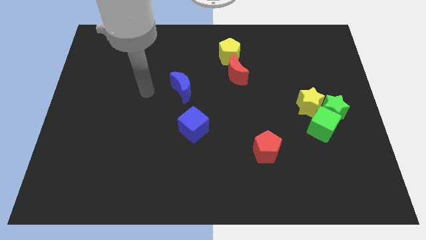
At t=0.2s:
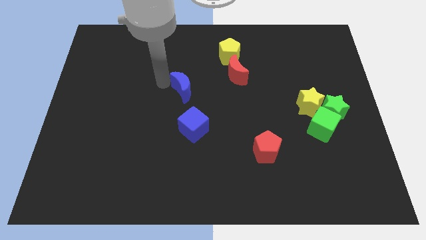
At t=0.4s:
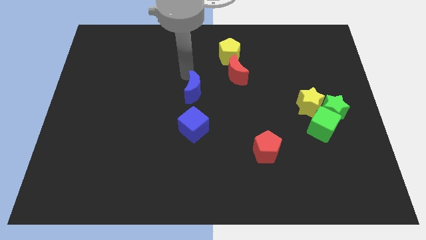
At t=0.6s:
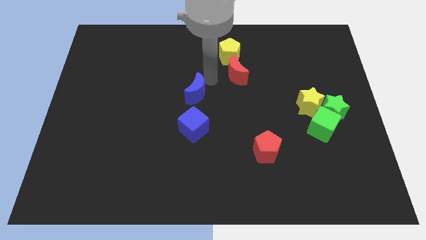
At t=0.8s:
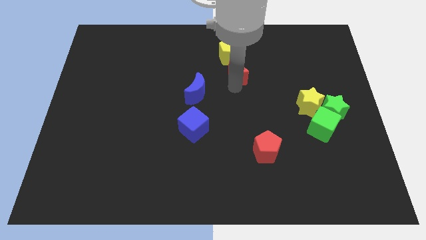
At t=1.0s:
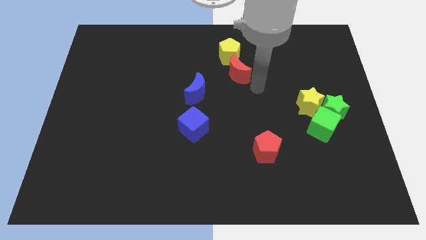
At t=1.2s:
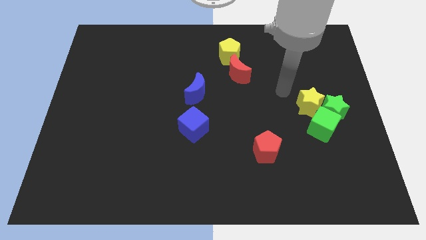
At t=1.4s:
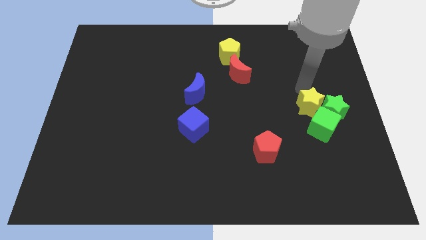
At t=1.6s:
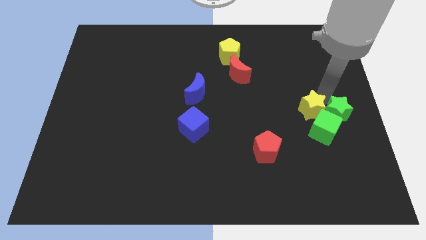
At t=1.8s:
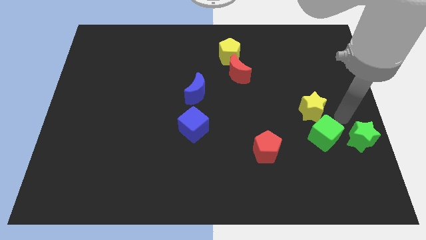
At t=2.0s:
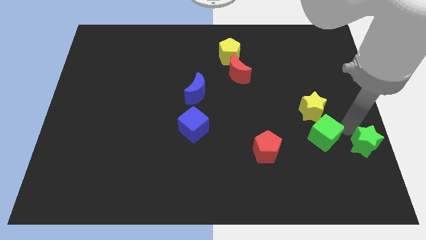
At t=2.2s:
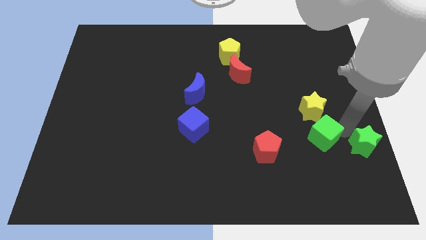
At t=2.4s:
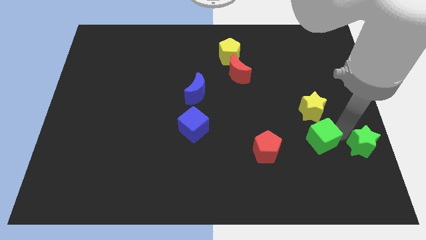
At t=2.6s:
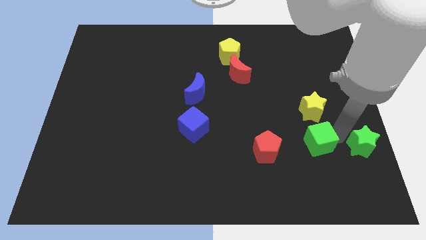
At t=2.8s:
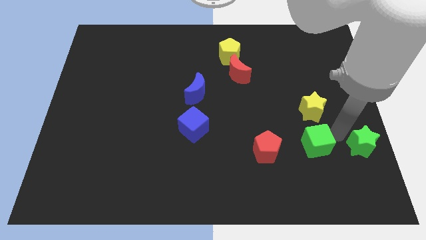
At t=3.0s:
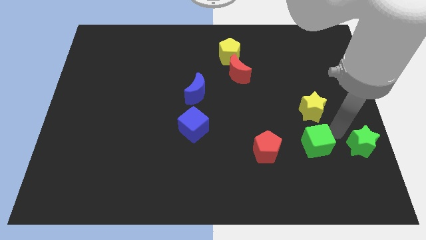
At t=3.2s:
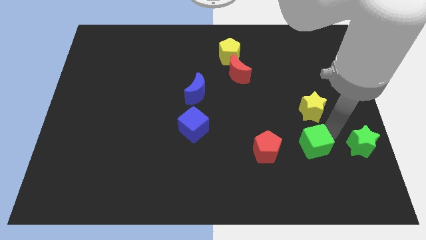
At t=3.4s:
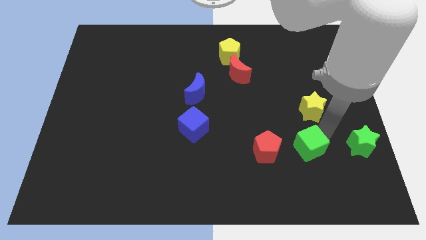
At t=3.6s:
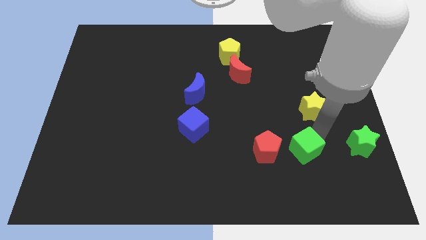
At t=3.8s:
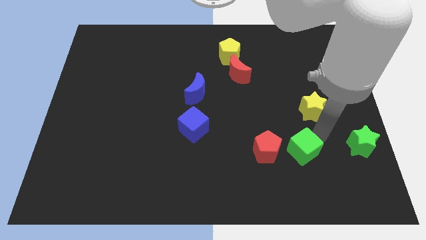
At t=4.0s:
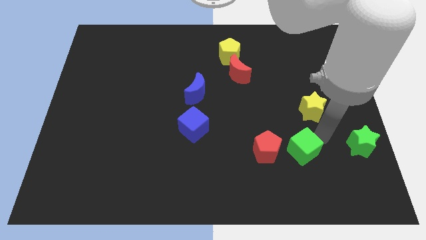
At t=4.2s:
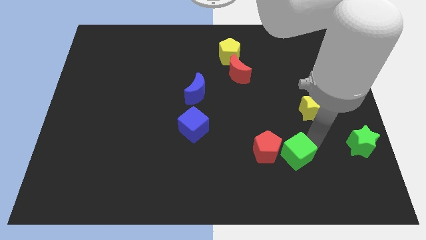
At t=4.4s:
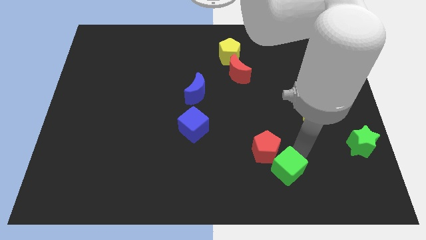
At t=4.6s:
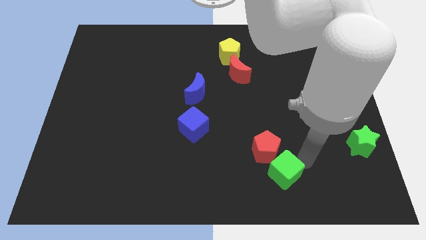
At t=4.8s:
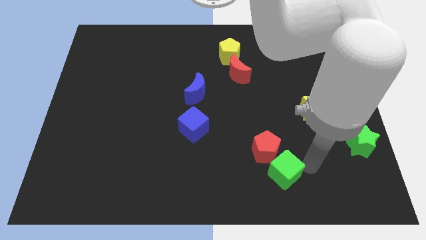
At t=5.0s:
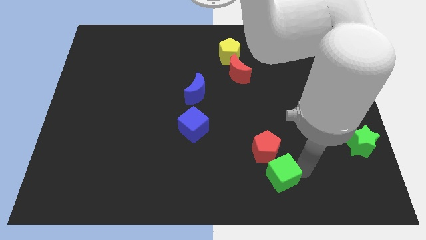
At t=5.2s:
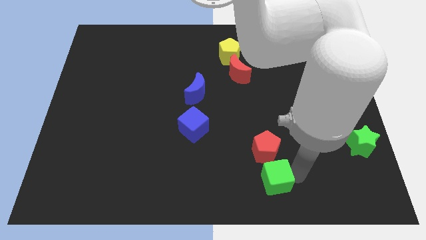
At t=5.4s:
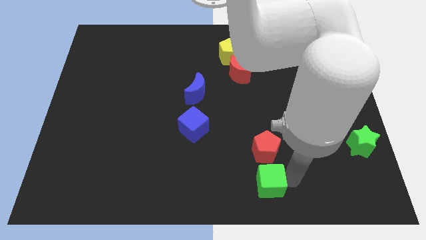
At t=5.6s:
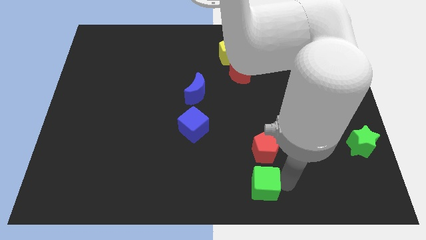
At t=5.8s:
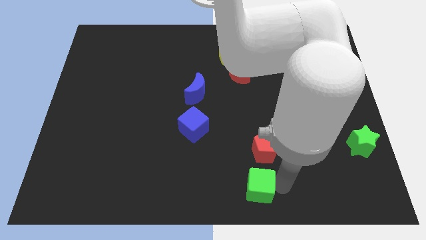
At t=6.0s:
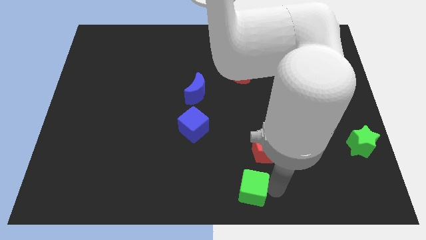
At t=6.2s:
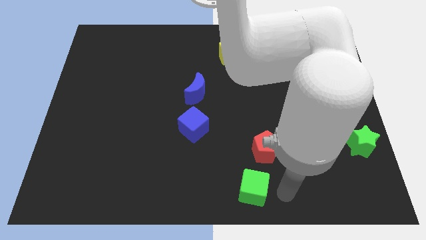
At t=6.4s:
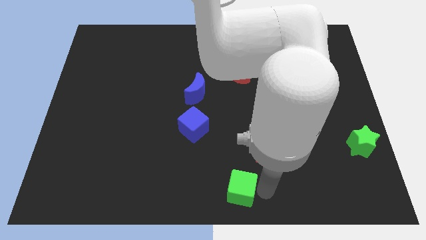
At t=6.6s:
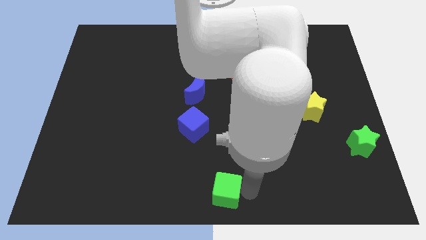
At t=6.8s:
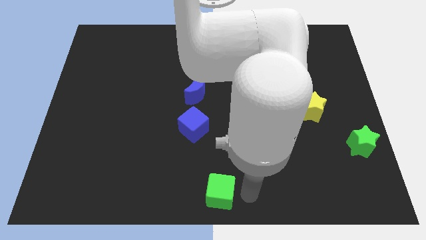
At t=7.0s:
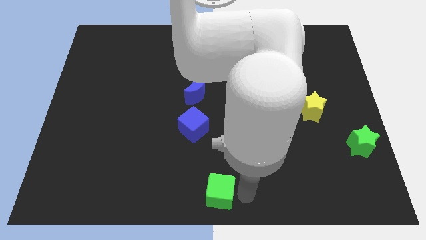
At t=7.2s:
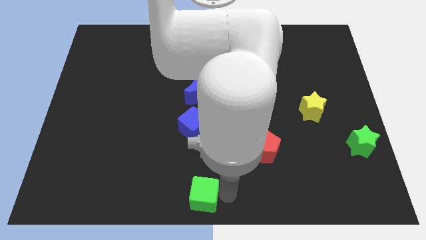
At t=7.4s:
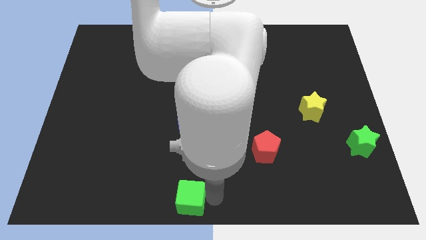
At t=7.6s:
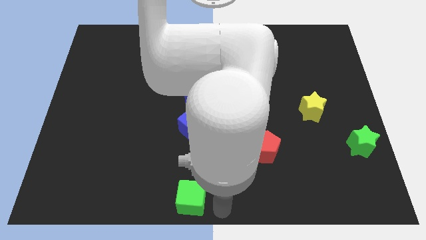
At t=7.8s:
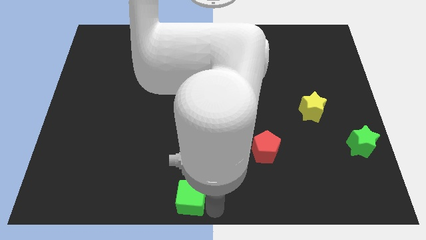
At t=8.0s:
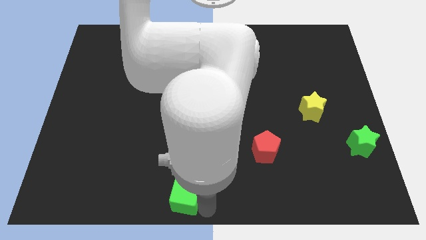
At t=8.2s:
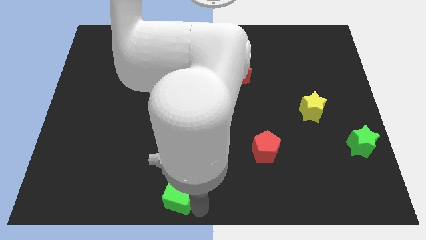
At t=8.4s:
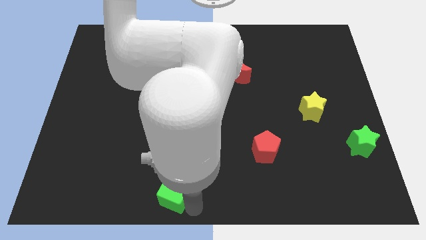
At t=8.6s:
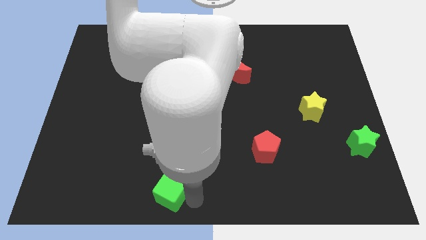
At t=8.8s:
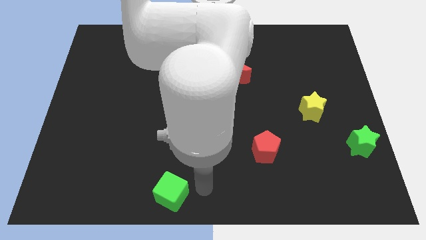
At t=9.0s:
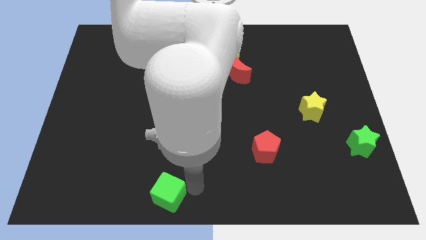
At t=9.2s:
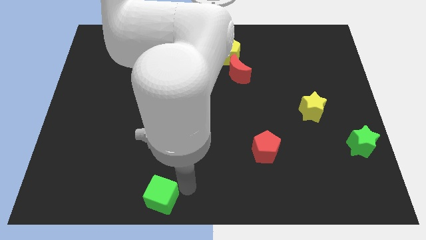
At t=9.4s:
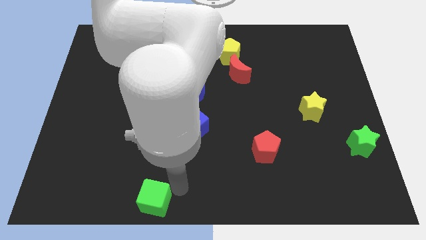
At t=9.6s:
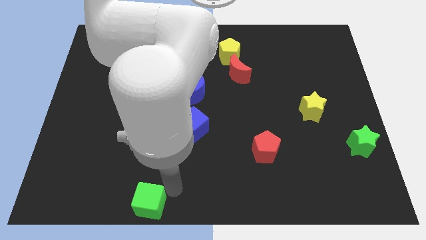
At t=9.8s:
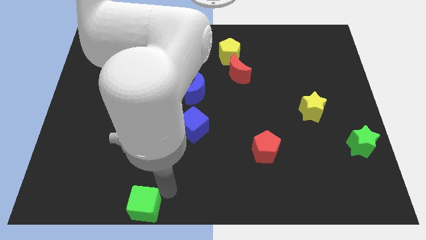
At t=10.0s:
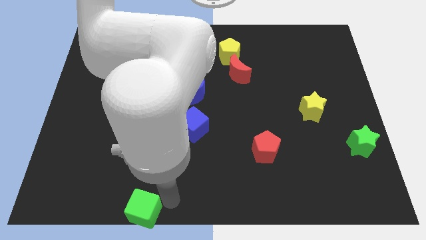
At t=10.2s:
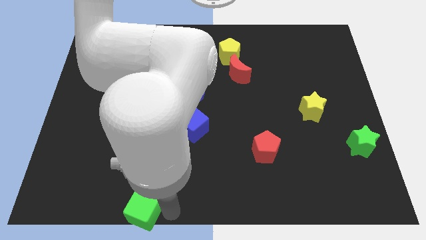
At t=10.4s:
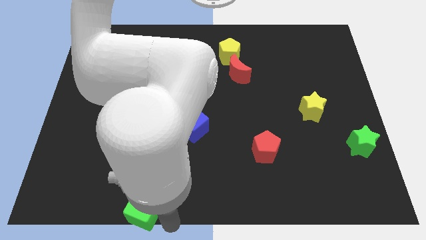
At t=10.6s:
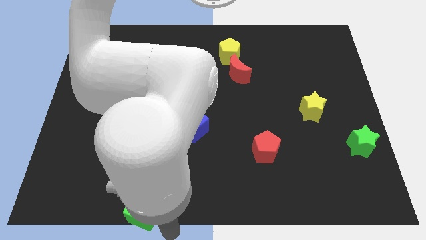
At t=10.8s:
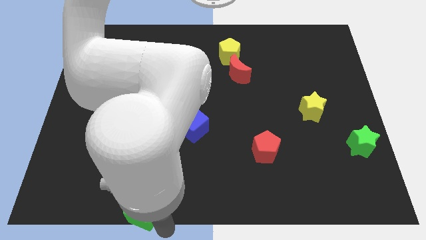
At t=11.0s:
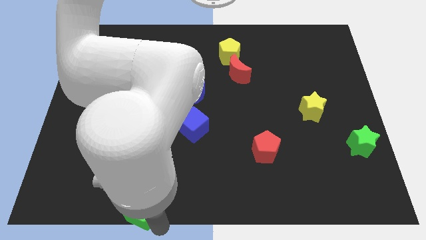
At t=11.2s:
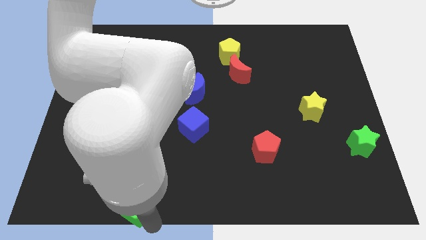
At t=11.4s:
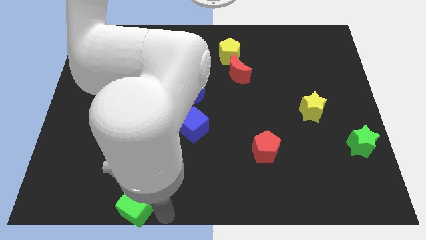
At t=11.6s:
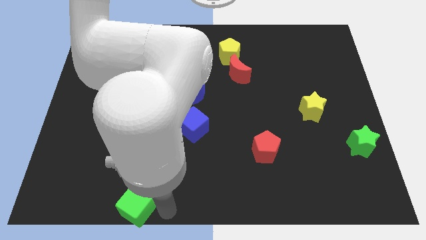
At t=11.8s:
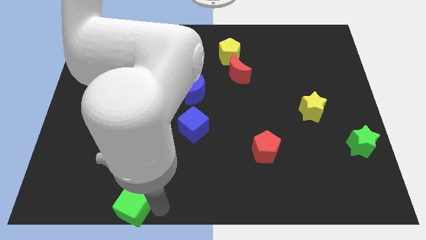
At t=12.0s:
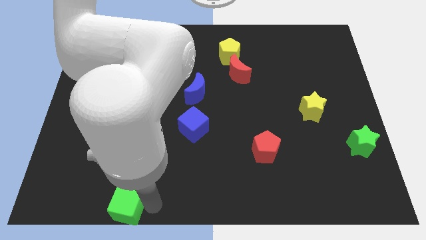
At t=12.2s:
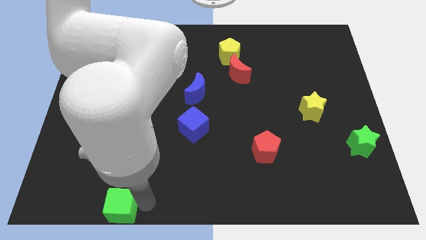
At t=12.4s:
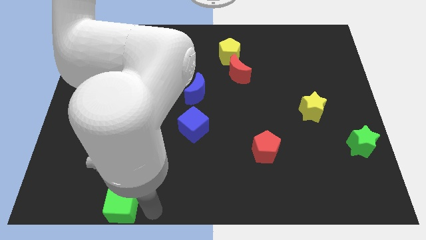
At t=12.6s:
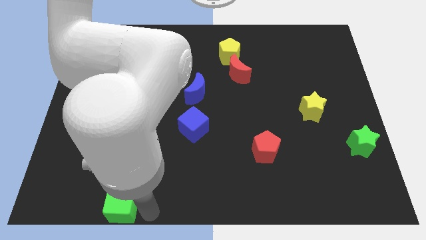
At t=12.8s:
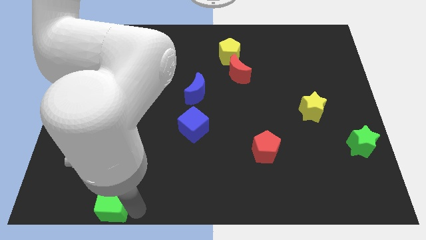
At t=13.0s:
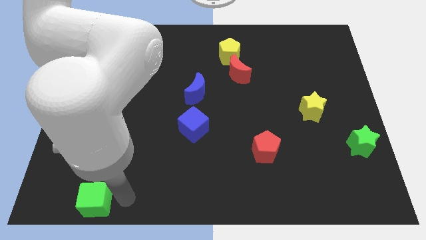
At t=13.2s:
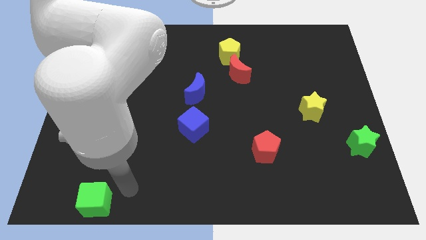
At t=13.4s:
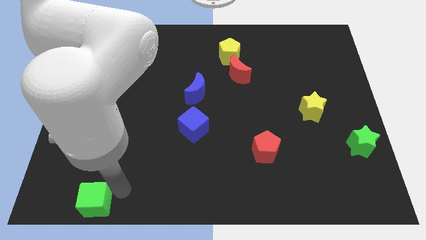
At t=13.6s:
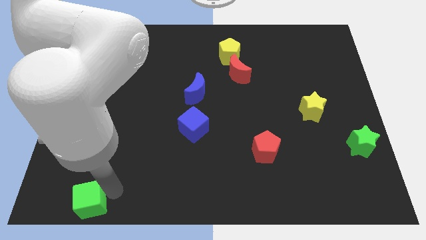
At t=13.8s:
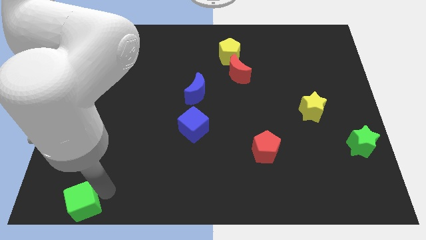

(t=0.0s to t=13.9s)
move the green cube to the lower left corner

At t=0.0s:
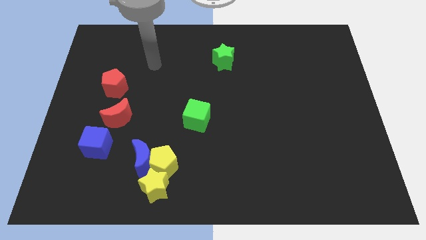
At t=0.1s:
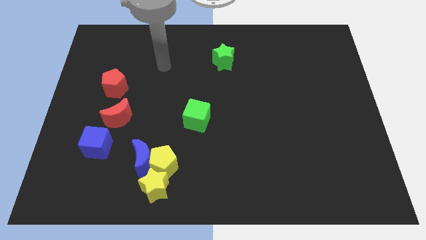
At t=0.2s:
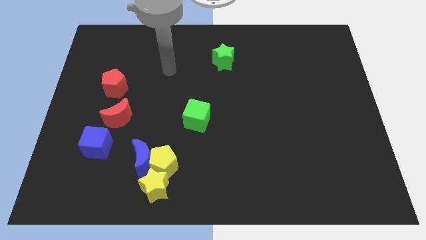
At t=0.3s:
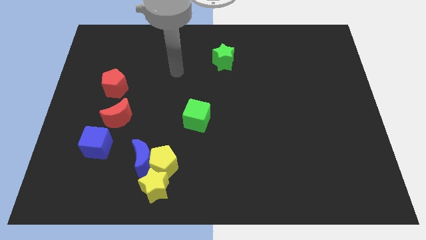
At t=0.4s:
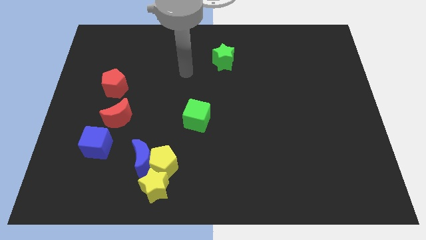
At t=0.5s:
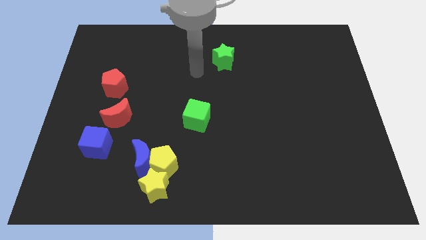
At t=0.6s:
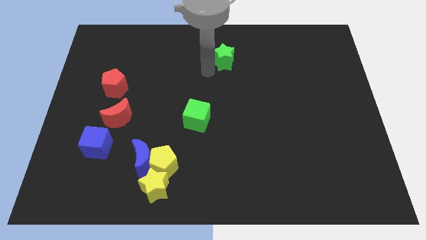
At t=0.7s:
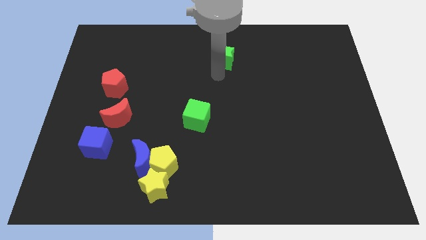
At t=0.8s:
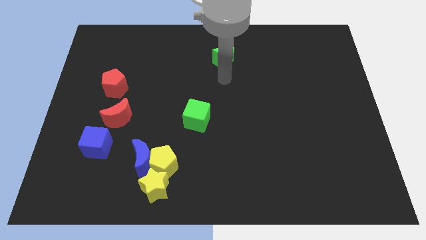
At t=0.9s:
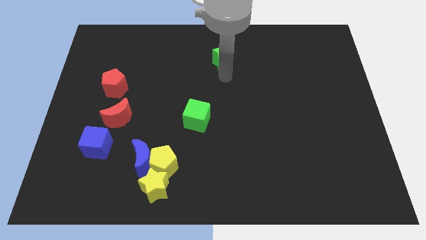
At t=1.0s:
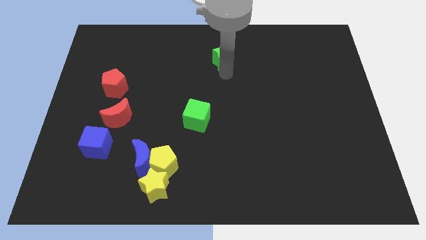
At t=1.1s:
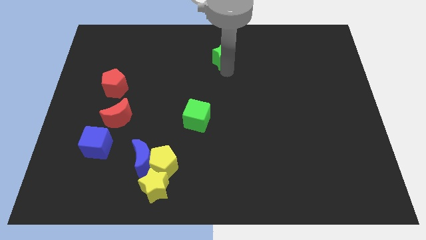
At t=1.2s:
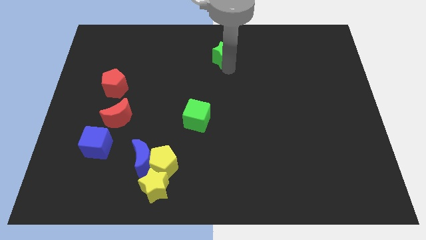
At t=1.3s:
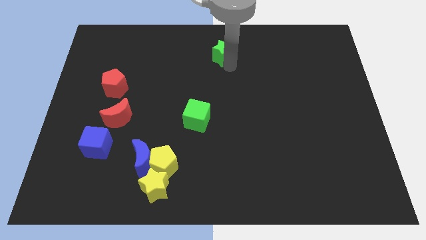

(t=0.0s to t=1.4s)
move the green star to the towards your base
